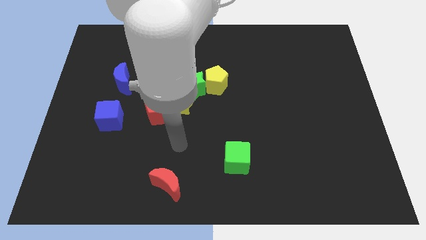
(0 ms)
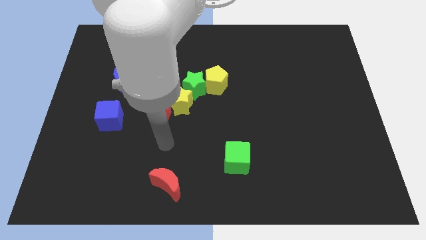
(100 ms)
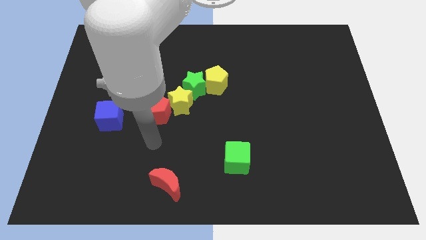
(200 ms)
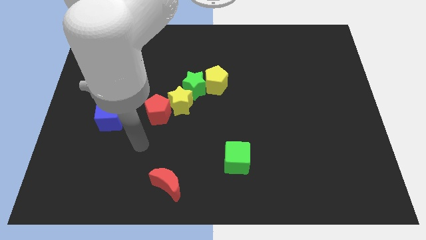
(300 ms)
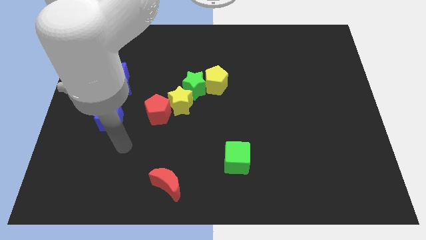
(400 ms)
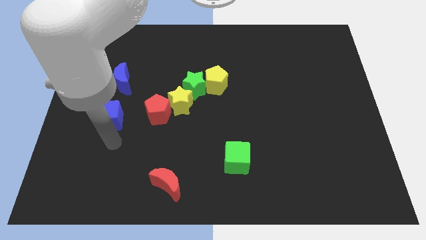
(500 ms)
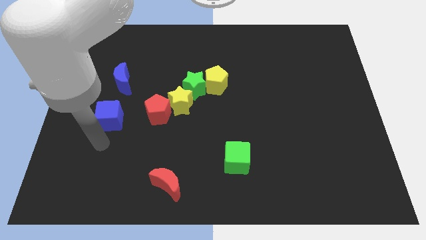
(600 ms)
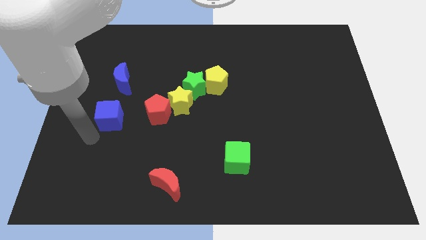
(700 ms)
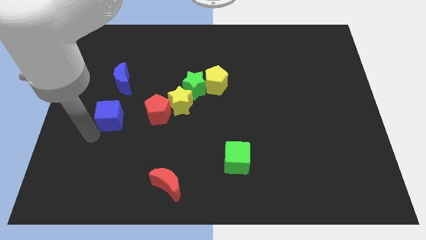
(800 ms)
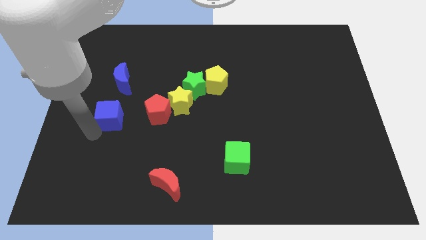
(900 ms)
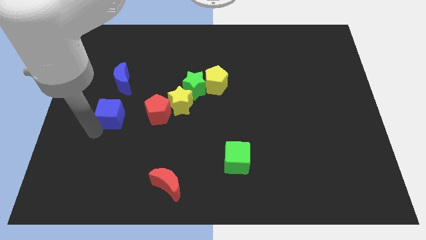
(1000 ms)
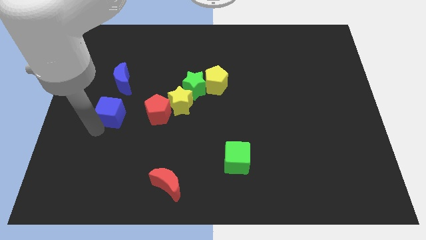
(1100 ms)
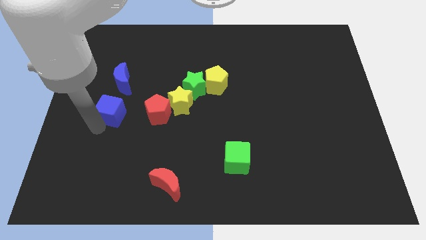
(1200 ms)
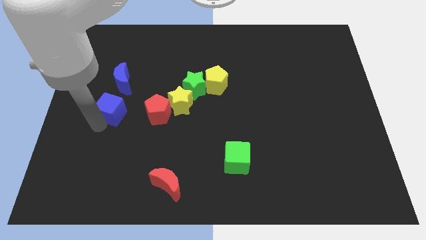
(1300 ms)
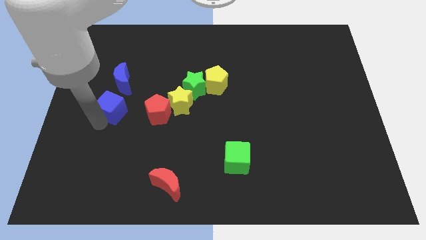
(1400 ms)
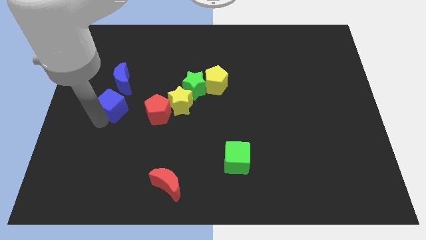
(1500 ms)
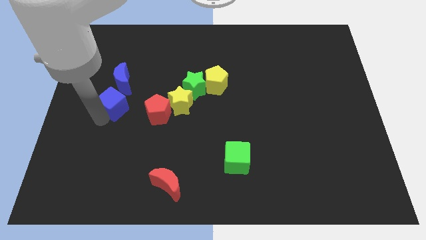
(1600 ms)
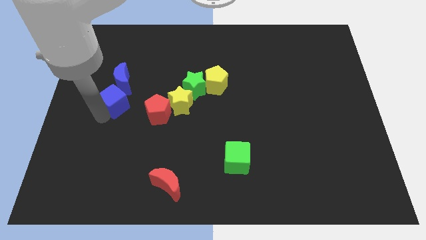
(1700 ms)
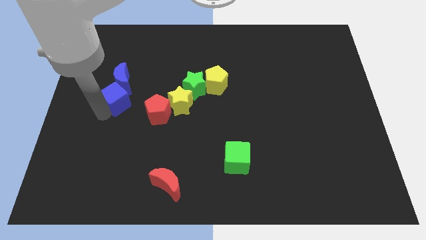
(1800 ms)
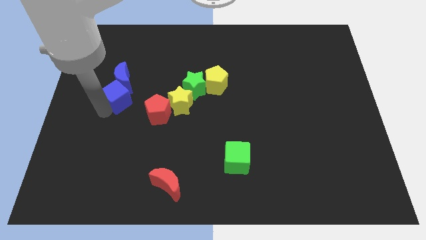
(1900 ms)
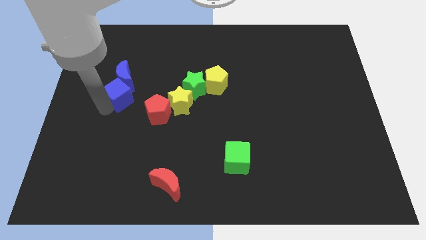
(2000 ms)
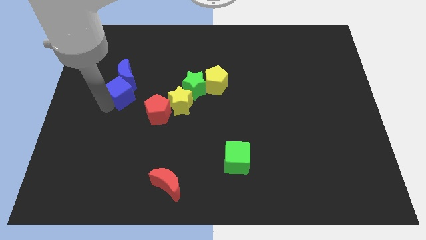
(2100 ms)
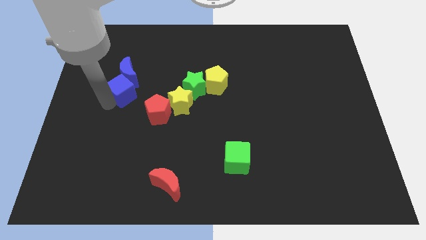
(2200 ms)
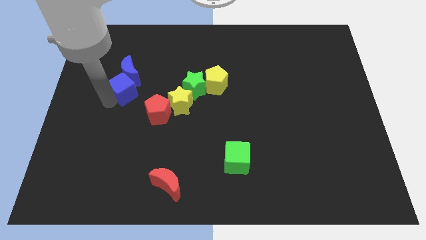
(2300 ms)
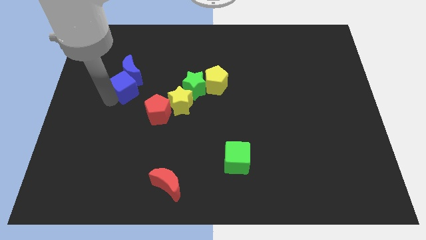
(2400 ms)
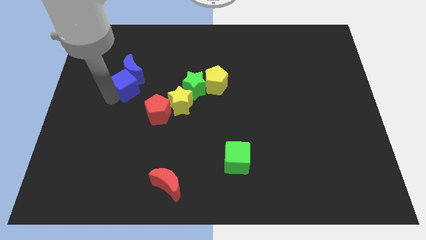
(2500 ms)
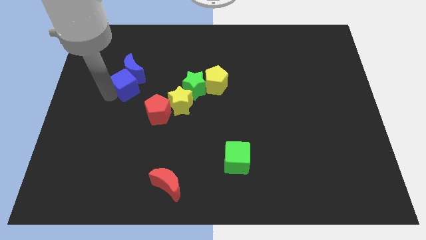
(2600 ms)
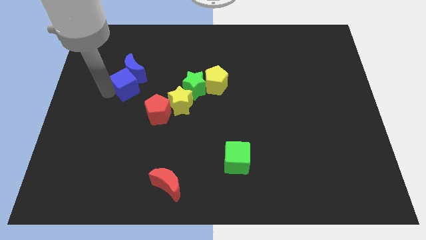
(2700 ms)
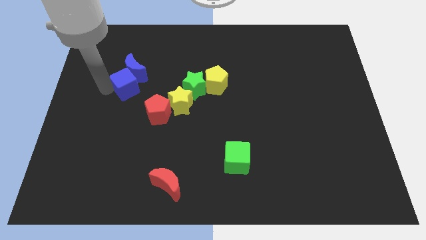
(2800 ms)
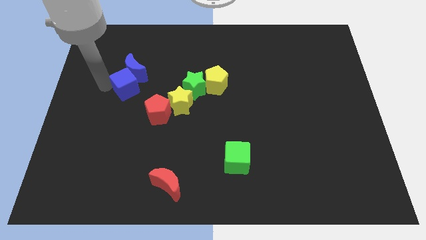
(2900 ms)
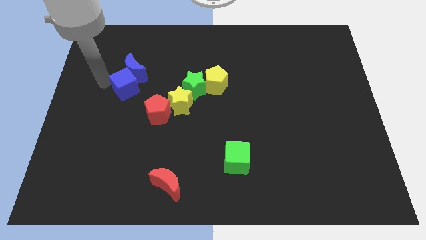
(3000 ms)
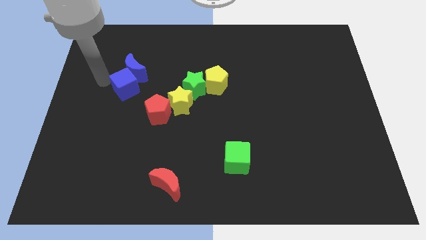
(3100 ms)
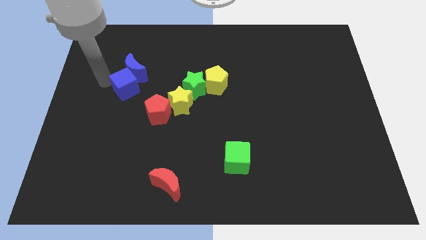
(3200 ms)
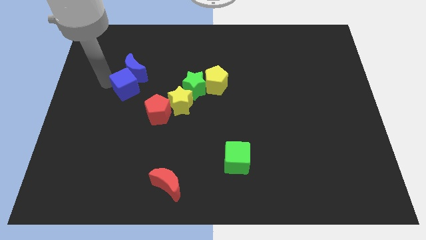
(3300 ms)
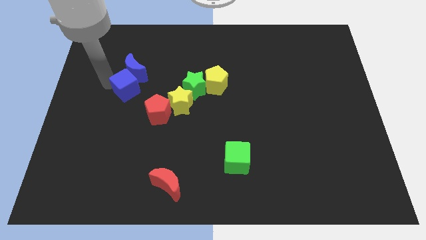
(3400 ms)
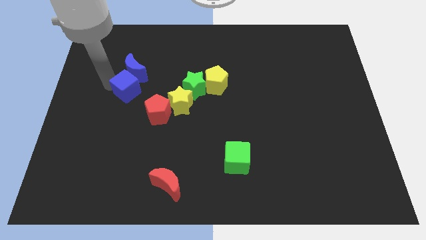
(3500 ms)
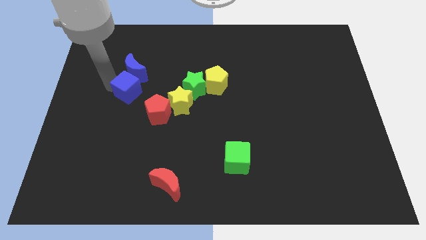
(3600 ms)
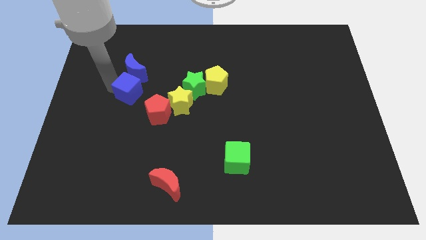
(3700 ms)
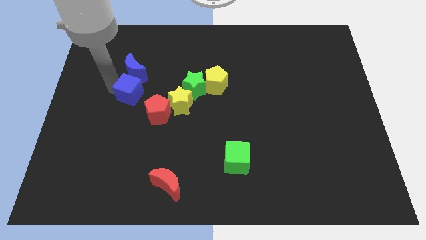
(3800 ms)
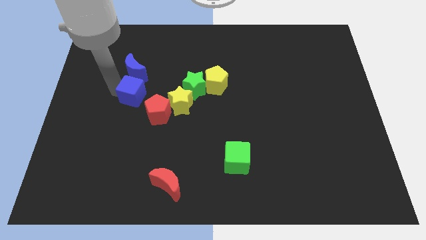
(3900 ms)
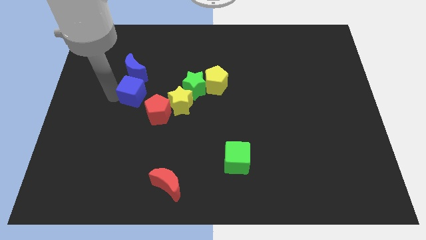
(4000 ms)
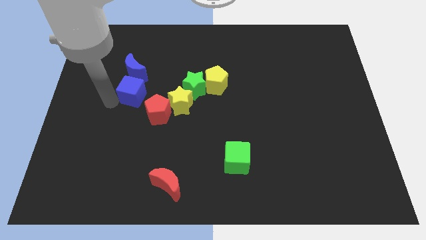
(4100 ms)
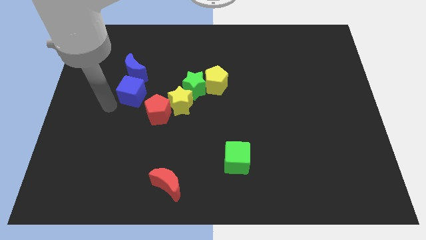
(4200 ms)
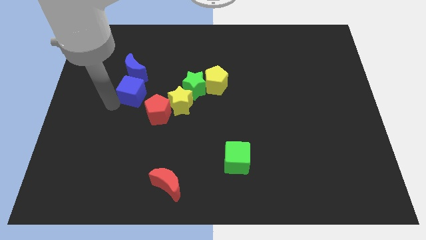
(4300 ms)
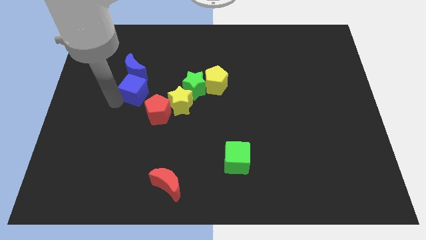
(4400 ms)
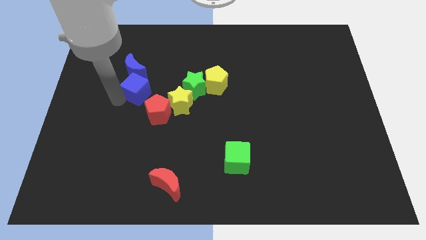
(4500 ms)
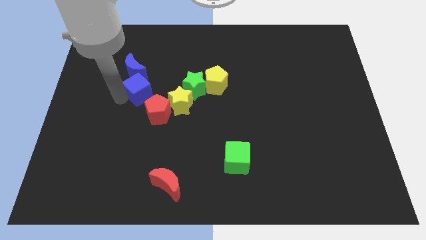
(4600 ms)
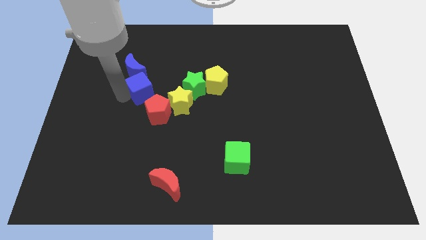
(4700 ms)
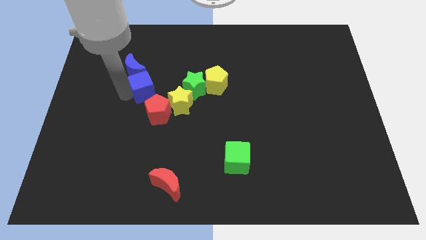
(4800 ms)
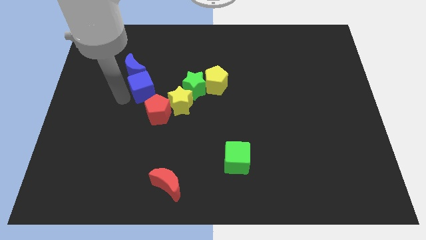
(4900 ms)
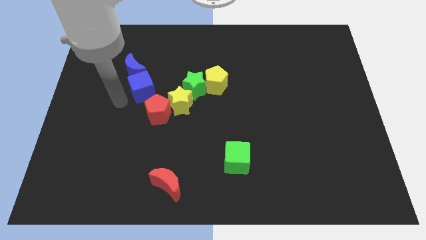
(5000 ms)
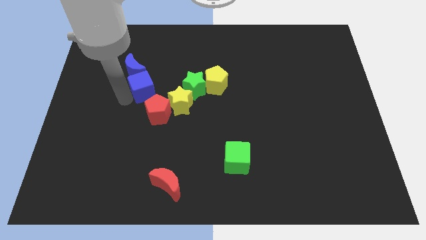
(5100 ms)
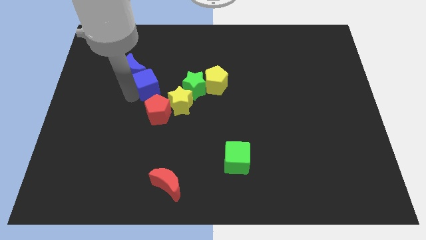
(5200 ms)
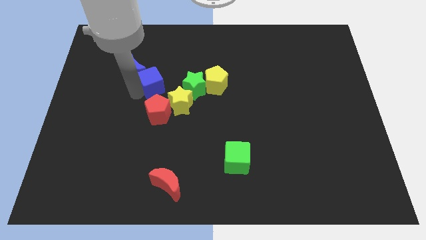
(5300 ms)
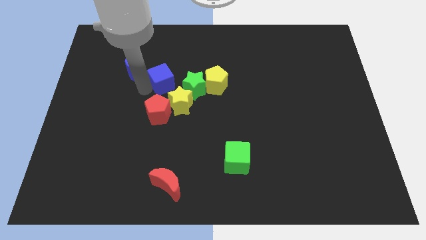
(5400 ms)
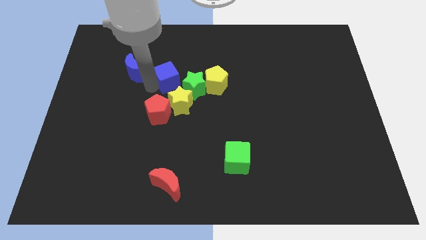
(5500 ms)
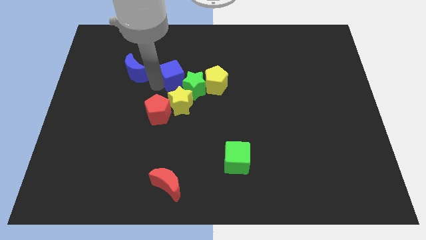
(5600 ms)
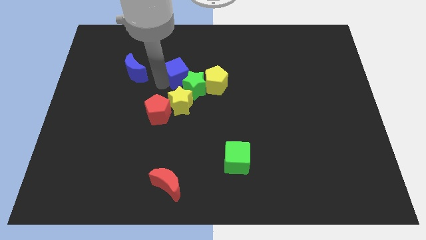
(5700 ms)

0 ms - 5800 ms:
put the blue cube to the top of the green star

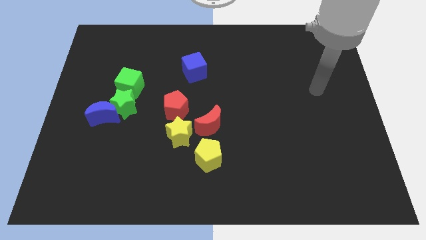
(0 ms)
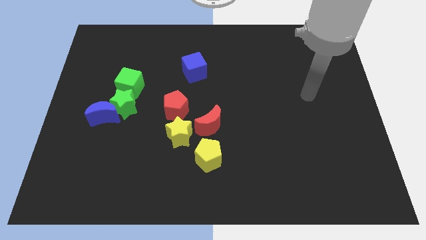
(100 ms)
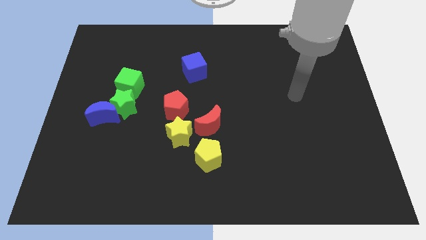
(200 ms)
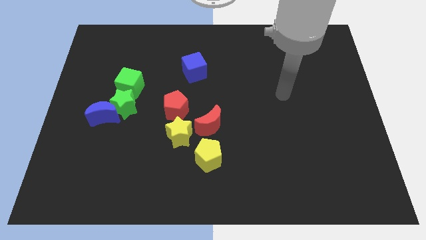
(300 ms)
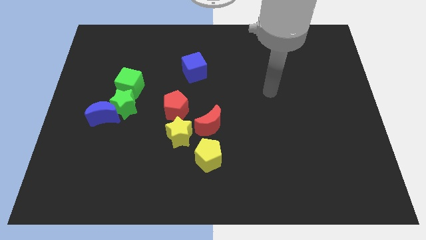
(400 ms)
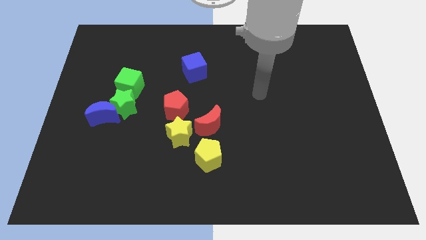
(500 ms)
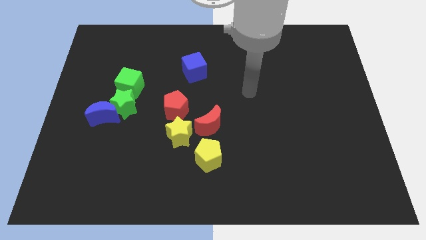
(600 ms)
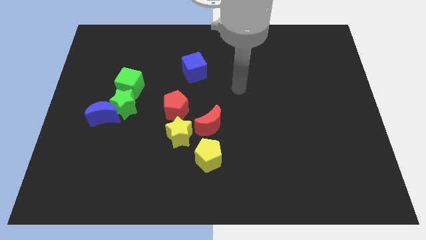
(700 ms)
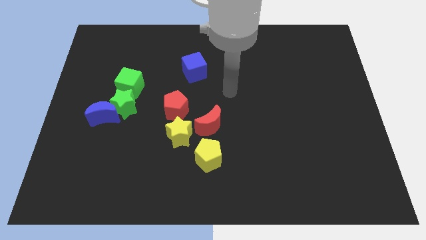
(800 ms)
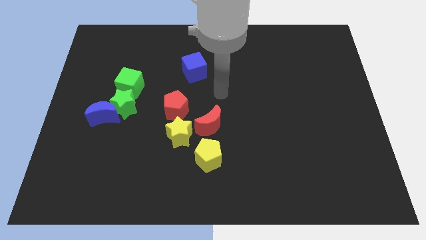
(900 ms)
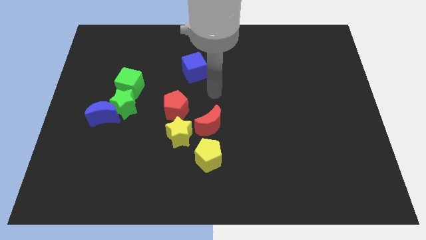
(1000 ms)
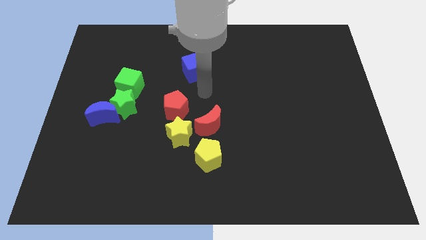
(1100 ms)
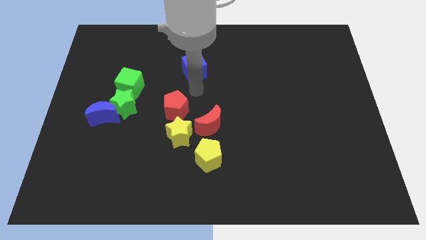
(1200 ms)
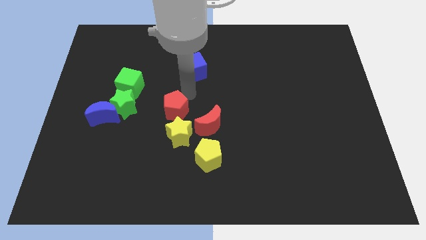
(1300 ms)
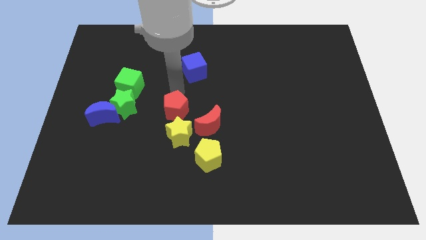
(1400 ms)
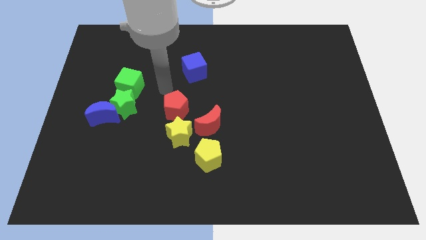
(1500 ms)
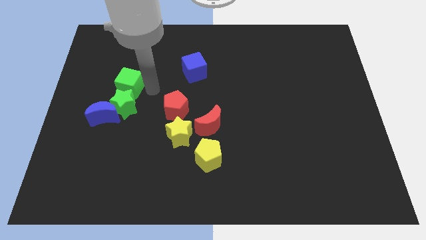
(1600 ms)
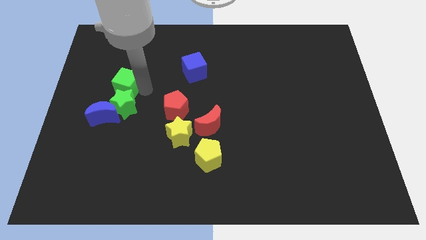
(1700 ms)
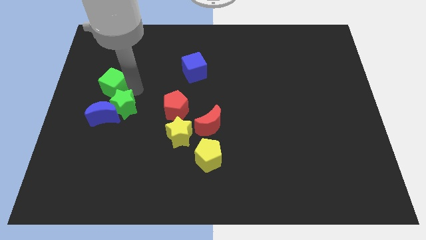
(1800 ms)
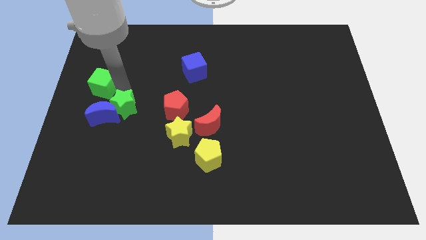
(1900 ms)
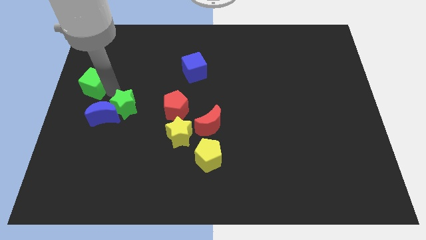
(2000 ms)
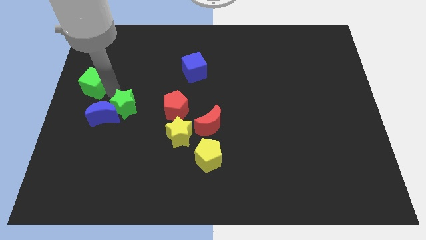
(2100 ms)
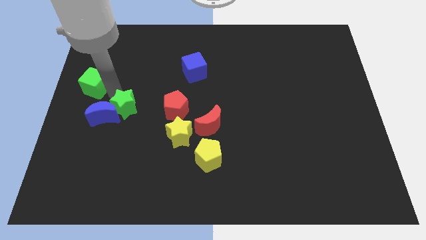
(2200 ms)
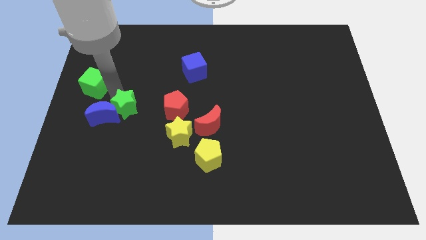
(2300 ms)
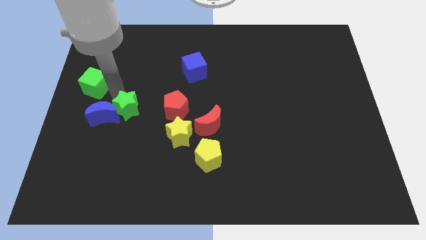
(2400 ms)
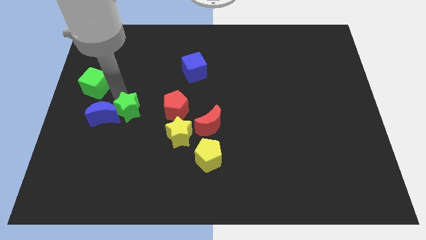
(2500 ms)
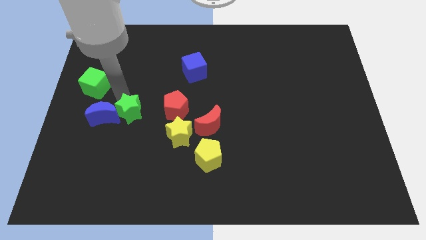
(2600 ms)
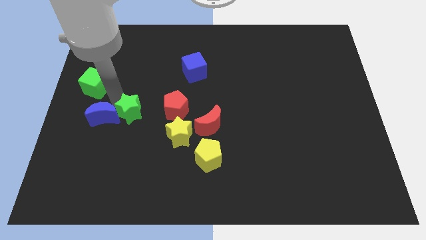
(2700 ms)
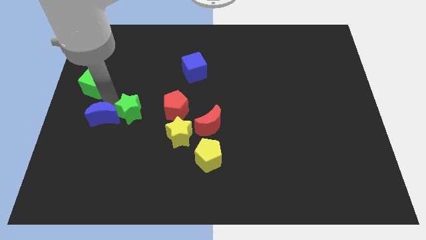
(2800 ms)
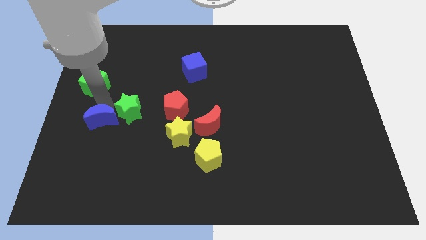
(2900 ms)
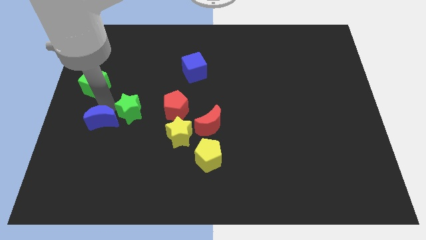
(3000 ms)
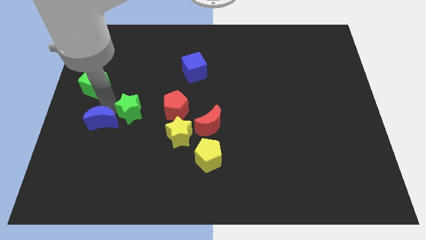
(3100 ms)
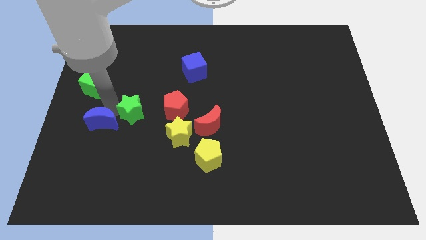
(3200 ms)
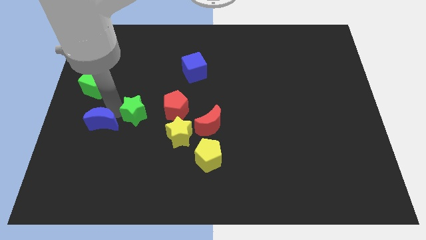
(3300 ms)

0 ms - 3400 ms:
slide the green star diagonally up and to the left of the yellow star
